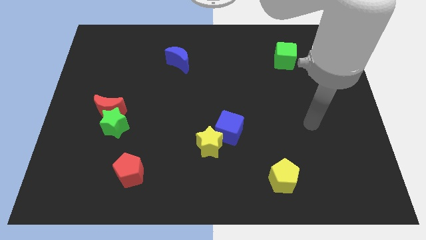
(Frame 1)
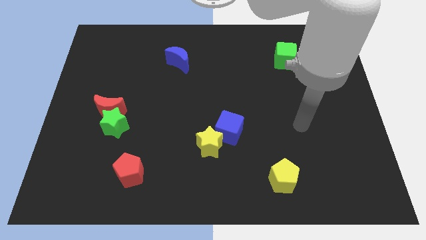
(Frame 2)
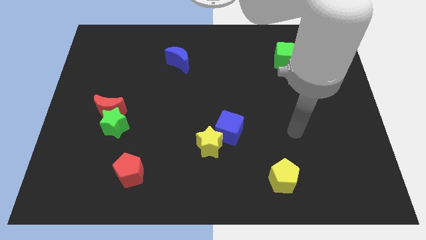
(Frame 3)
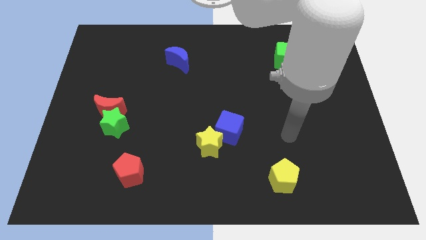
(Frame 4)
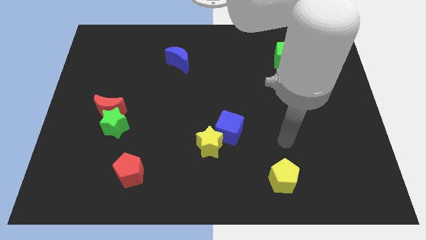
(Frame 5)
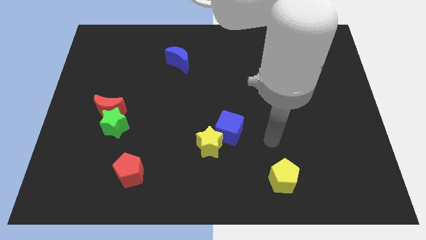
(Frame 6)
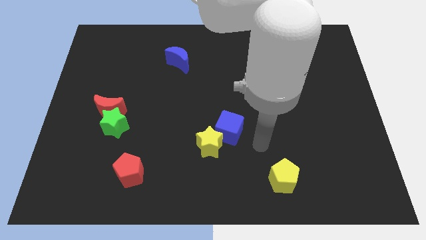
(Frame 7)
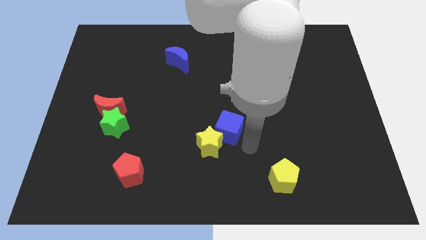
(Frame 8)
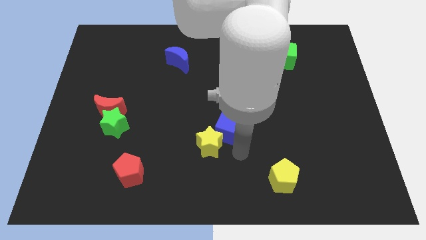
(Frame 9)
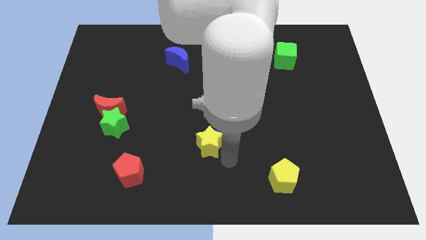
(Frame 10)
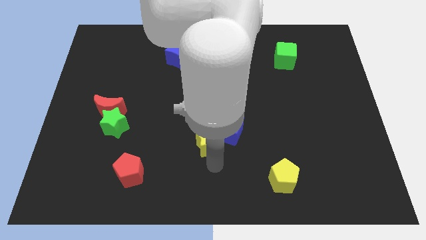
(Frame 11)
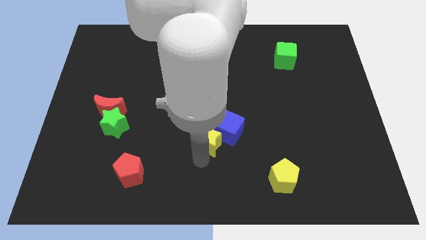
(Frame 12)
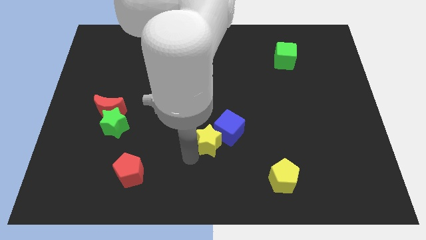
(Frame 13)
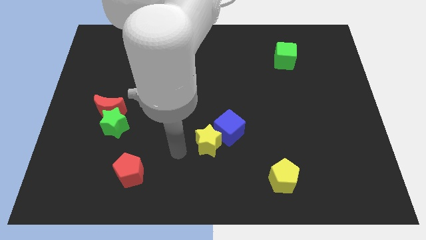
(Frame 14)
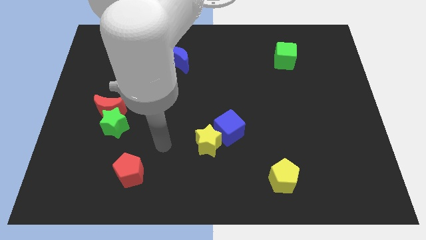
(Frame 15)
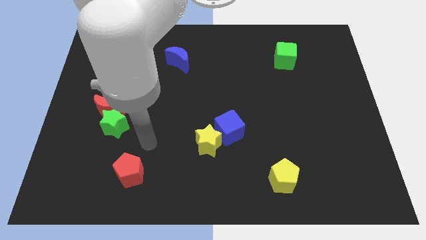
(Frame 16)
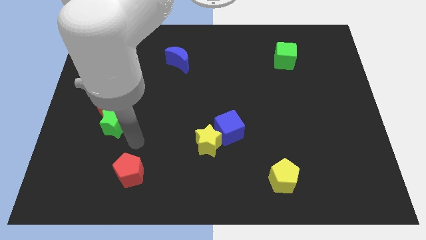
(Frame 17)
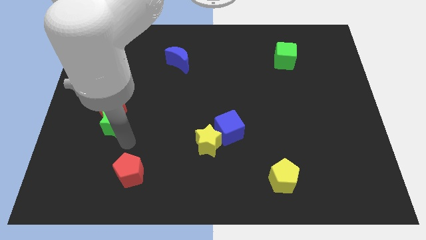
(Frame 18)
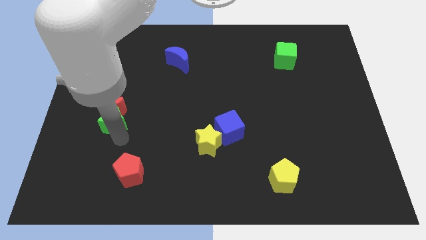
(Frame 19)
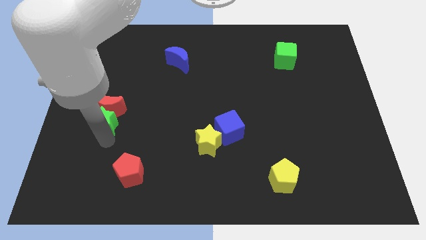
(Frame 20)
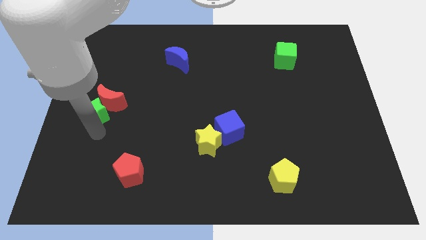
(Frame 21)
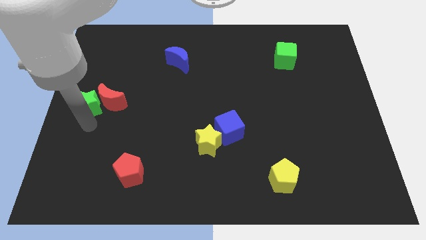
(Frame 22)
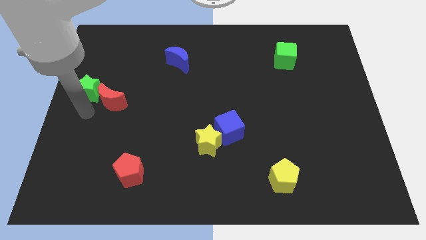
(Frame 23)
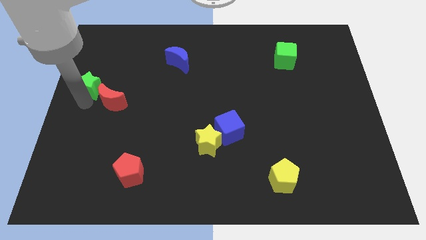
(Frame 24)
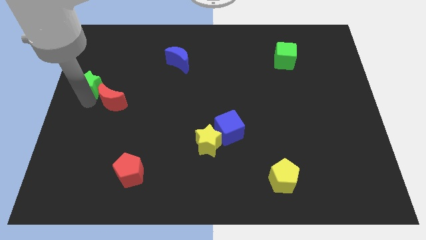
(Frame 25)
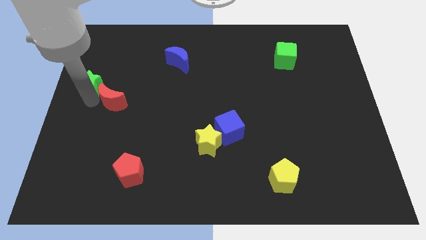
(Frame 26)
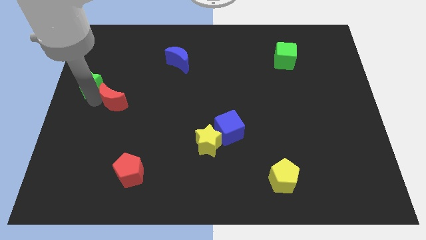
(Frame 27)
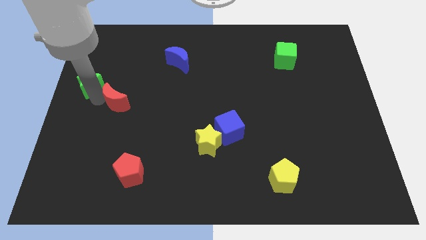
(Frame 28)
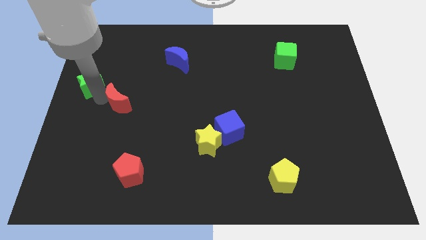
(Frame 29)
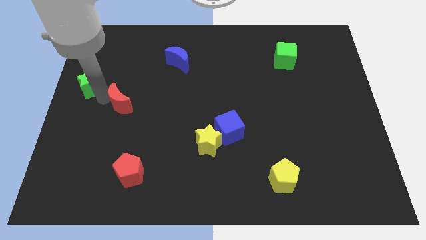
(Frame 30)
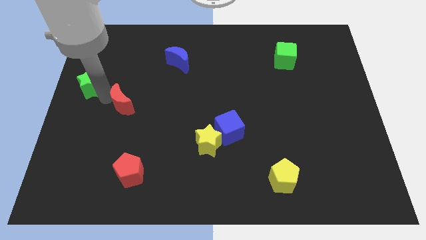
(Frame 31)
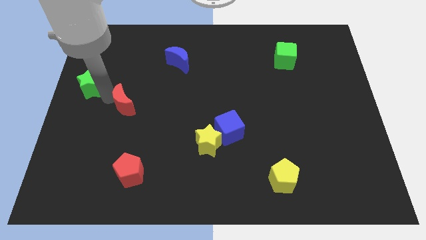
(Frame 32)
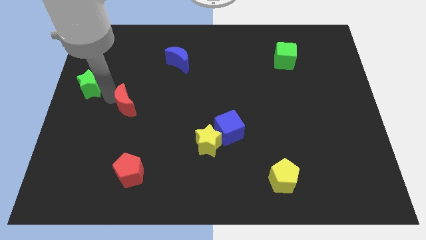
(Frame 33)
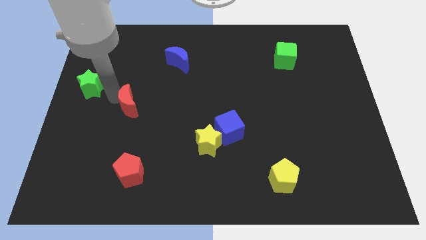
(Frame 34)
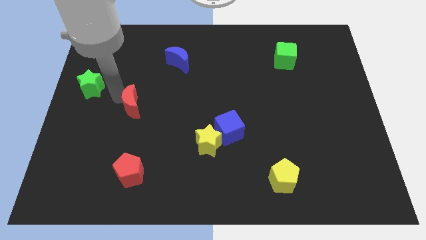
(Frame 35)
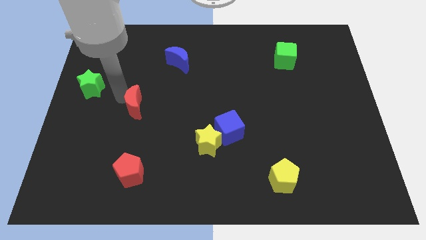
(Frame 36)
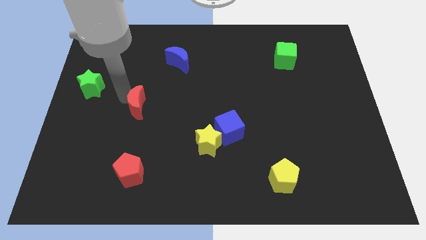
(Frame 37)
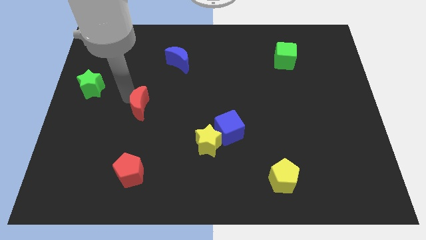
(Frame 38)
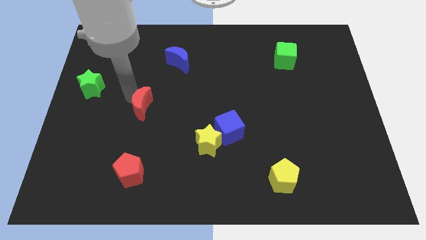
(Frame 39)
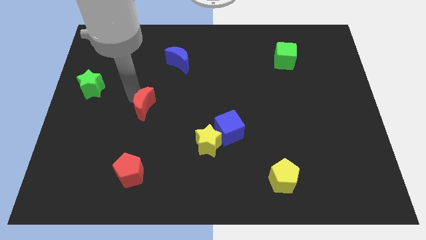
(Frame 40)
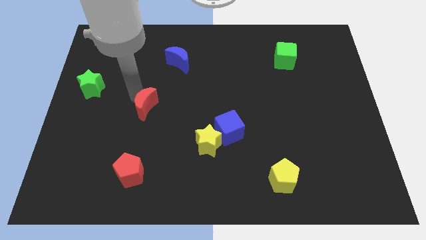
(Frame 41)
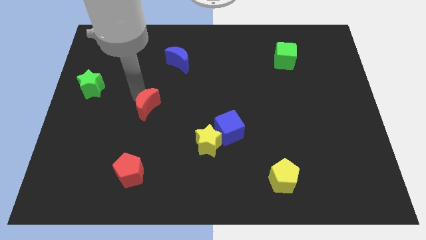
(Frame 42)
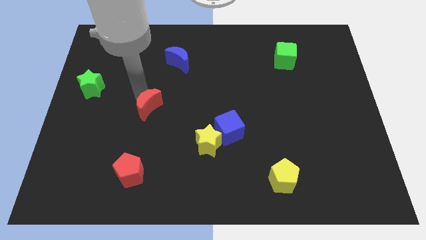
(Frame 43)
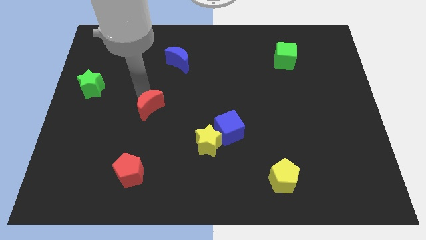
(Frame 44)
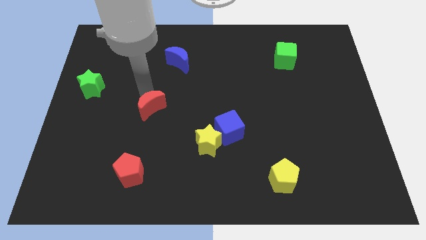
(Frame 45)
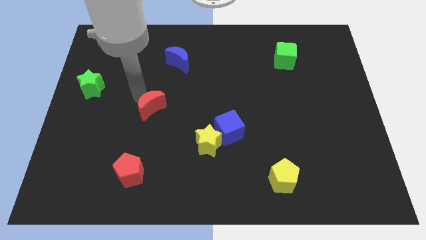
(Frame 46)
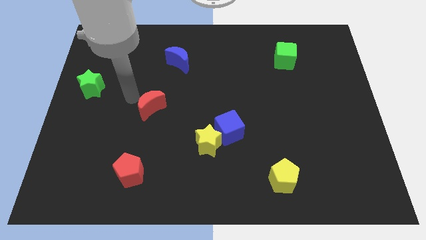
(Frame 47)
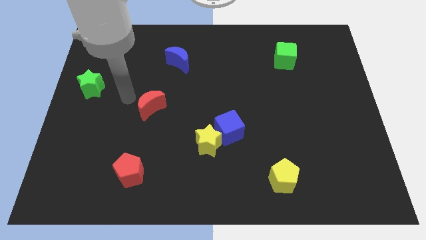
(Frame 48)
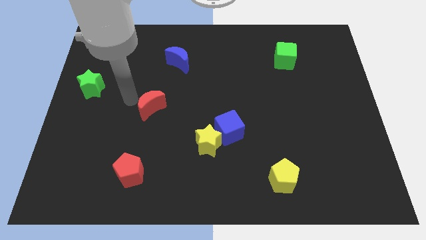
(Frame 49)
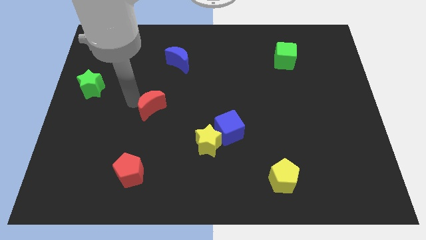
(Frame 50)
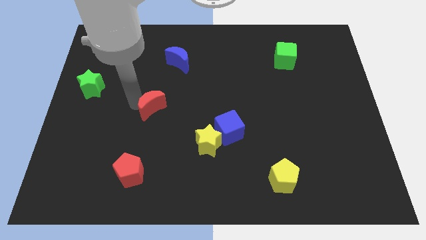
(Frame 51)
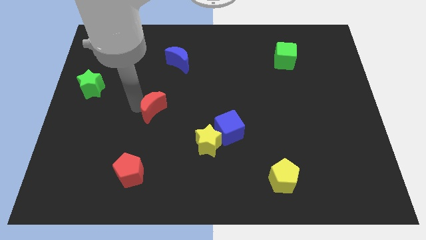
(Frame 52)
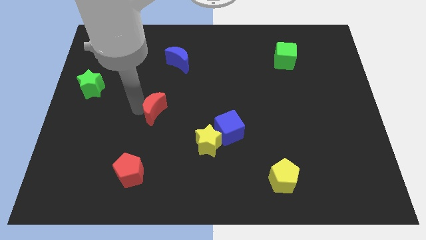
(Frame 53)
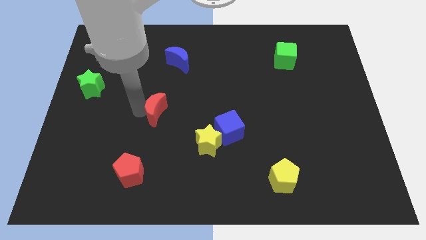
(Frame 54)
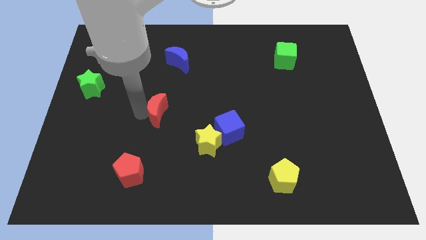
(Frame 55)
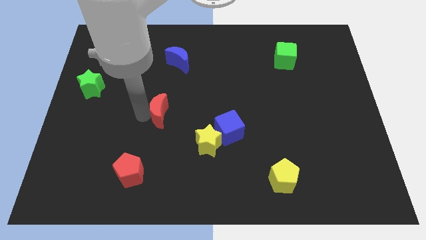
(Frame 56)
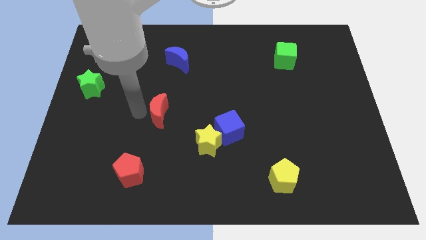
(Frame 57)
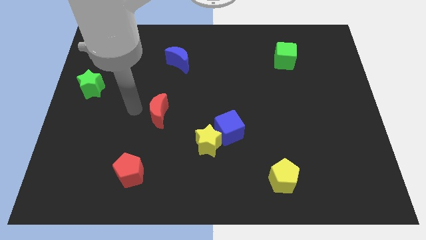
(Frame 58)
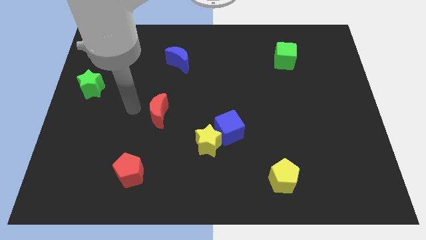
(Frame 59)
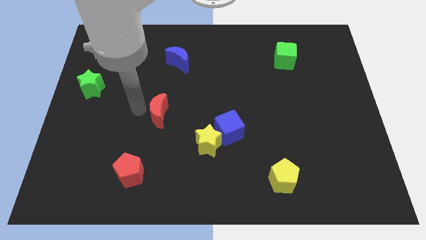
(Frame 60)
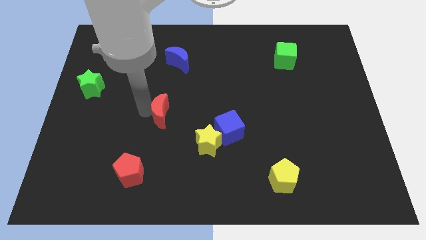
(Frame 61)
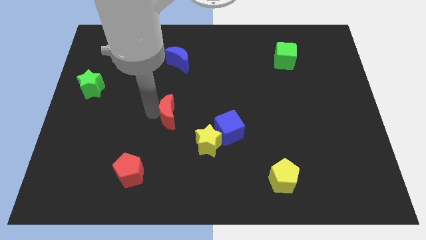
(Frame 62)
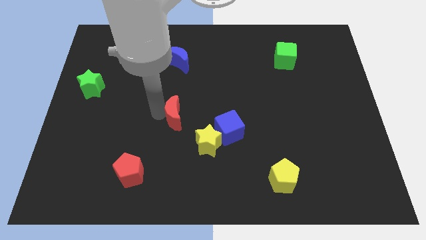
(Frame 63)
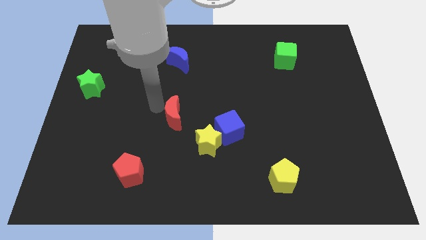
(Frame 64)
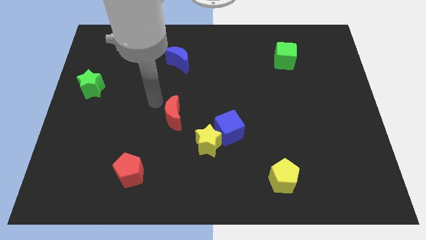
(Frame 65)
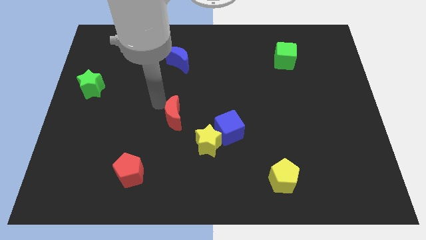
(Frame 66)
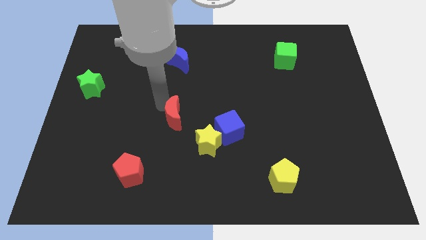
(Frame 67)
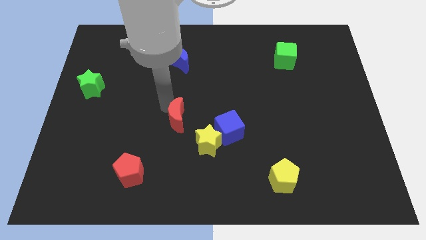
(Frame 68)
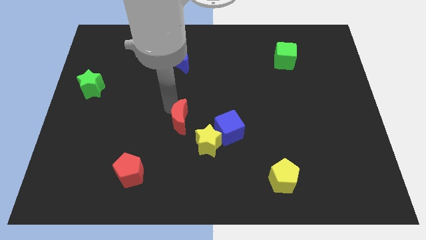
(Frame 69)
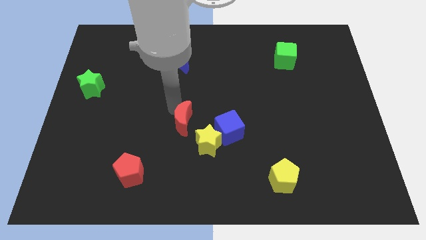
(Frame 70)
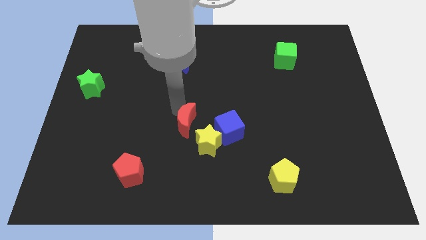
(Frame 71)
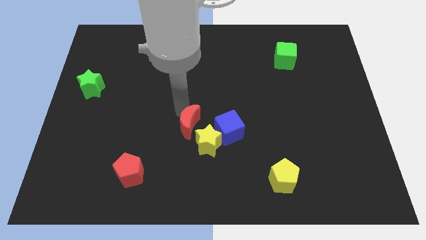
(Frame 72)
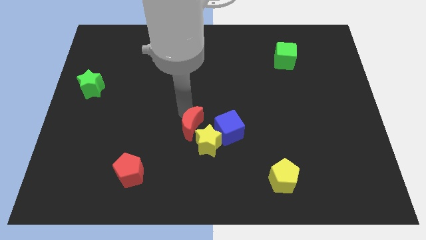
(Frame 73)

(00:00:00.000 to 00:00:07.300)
put the red moon next to the yellow star
